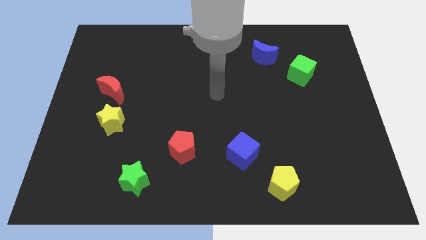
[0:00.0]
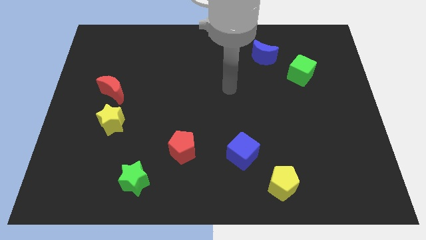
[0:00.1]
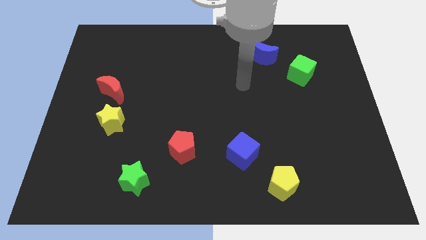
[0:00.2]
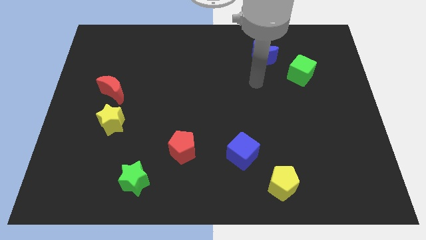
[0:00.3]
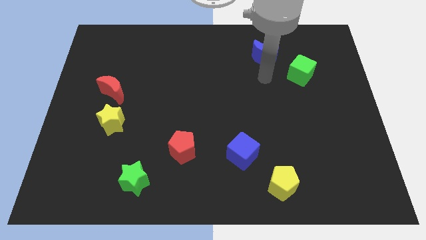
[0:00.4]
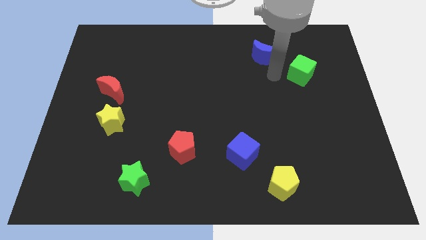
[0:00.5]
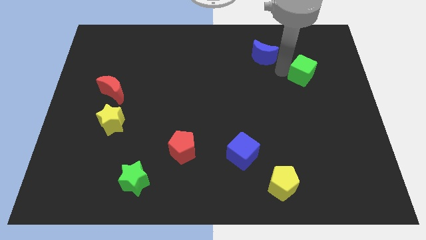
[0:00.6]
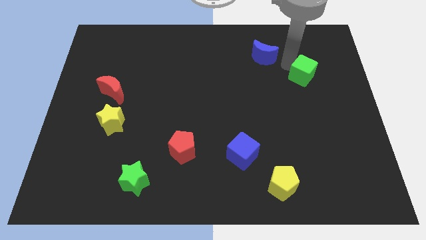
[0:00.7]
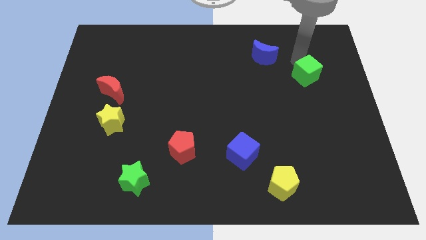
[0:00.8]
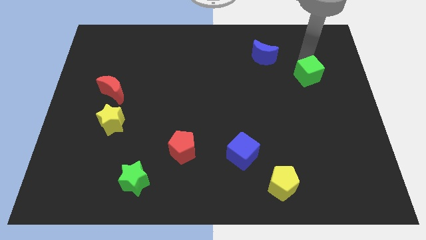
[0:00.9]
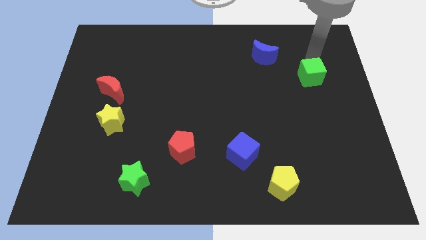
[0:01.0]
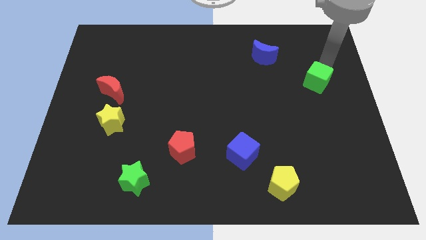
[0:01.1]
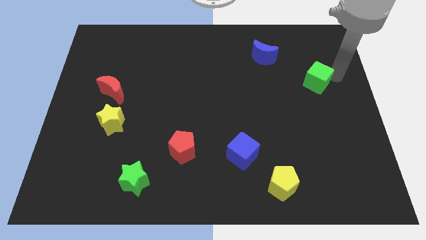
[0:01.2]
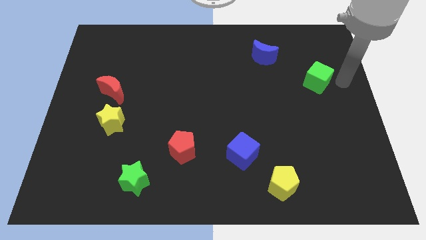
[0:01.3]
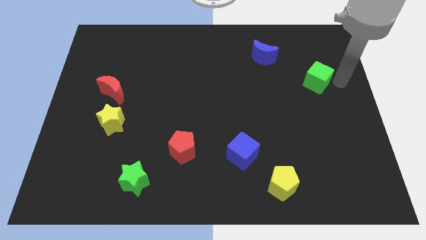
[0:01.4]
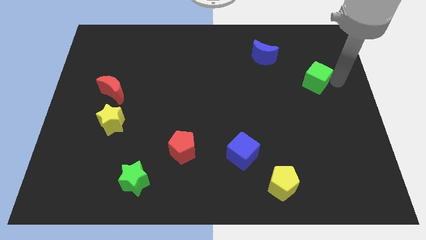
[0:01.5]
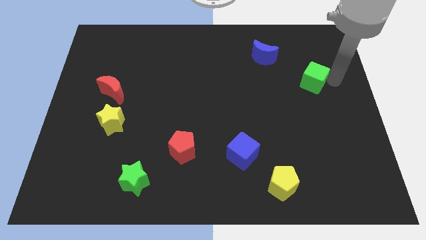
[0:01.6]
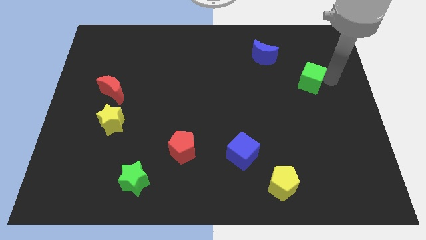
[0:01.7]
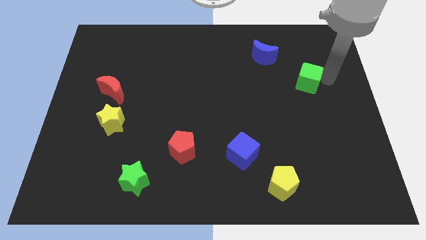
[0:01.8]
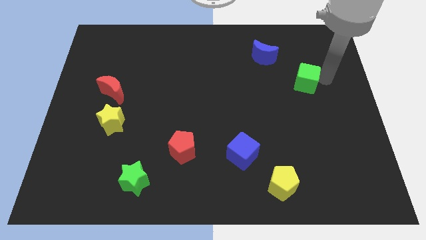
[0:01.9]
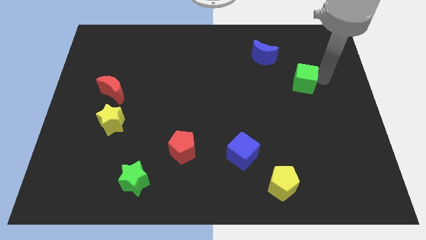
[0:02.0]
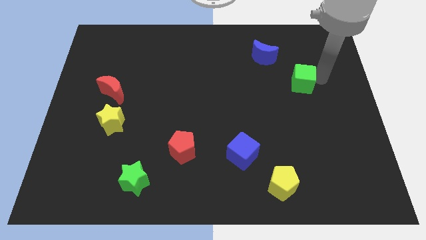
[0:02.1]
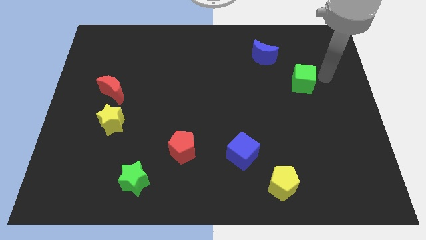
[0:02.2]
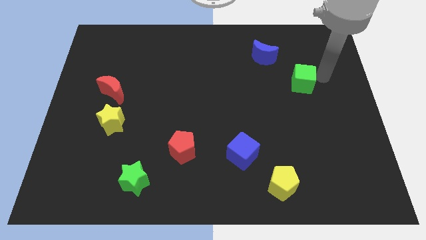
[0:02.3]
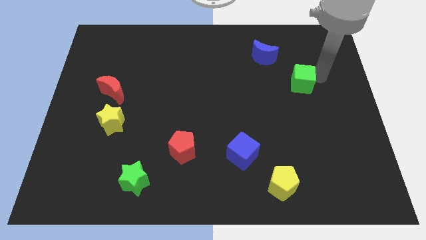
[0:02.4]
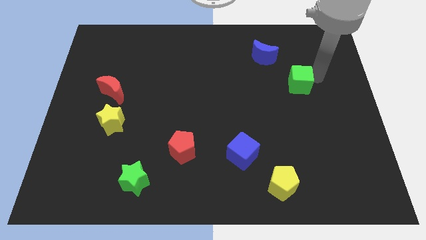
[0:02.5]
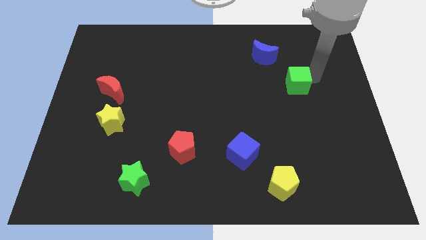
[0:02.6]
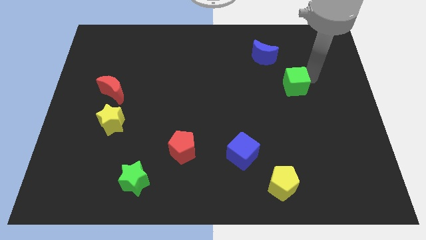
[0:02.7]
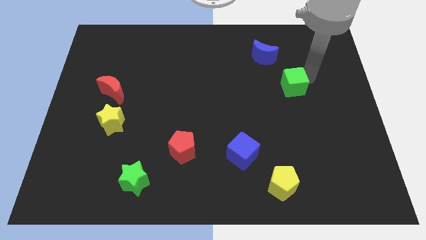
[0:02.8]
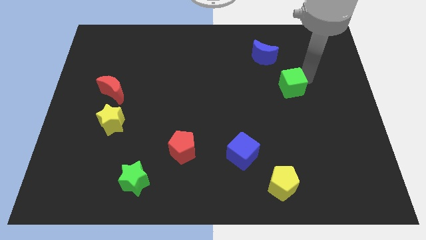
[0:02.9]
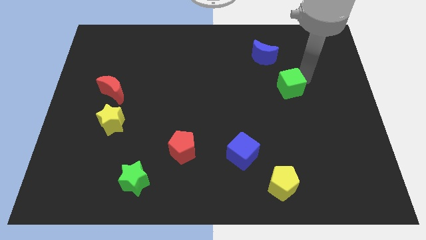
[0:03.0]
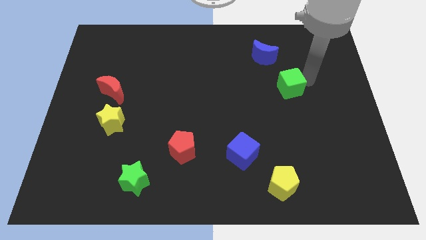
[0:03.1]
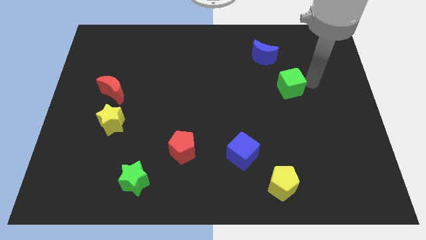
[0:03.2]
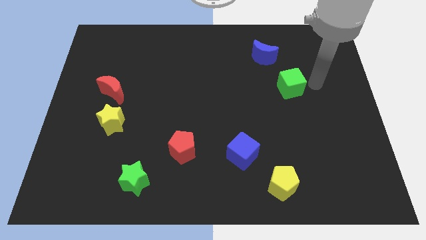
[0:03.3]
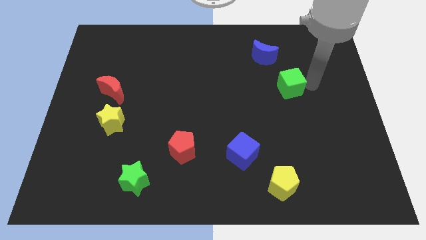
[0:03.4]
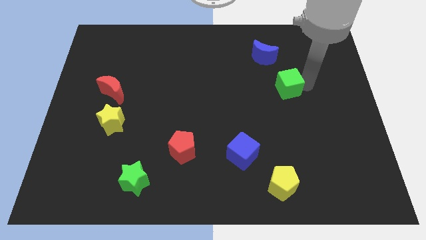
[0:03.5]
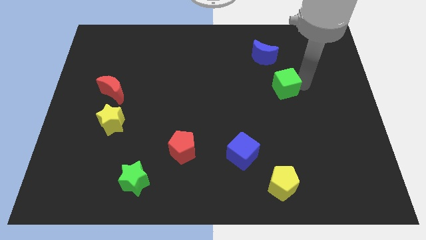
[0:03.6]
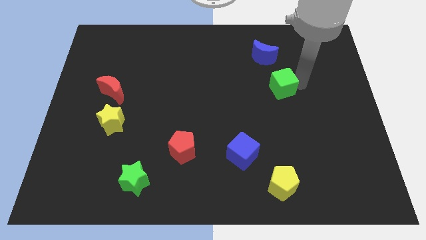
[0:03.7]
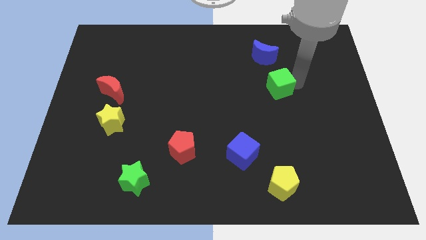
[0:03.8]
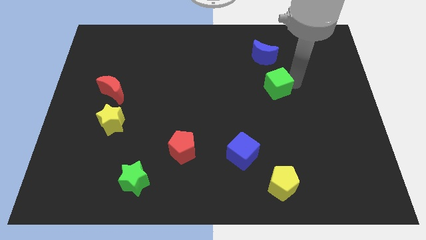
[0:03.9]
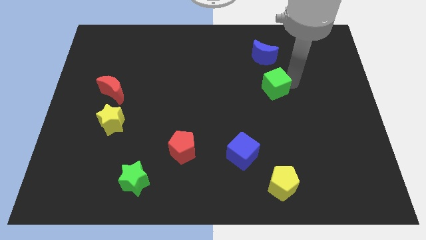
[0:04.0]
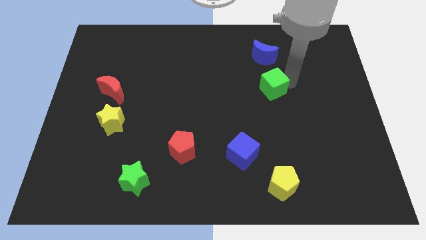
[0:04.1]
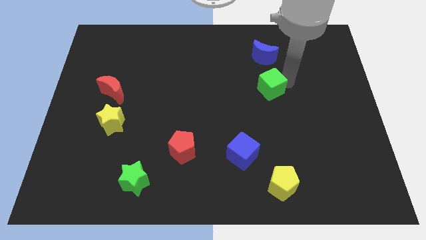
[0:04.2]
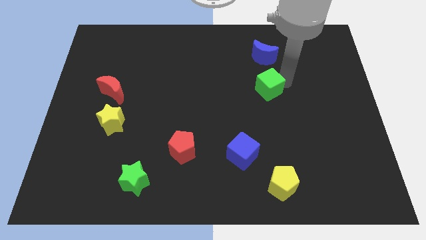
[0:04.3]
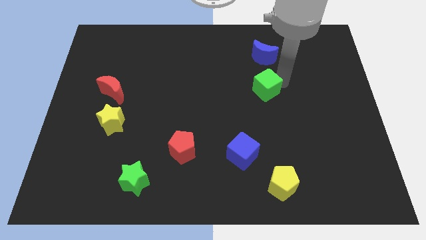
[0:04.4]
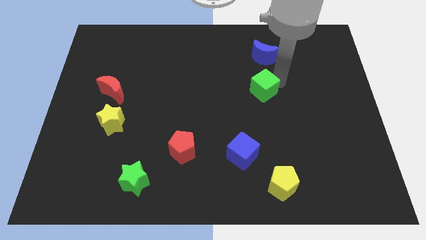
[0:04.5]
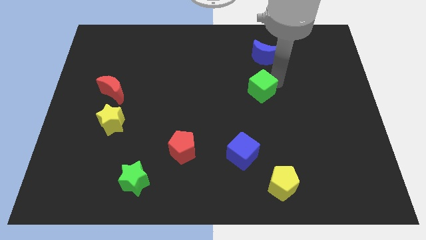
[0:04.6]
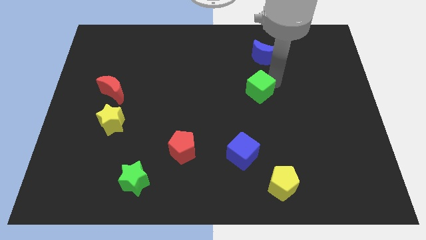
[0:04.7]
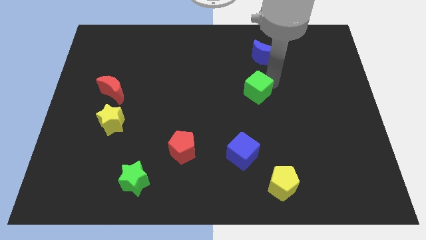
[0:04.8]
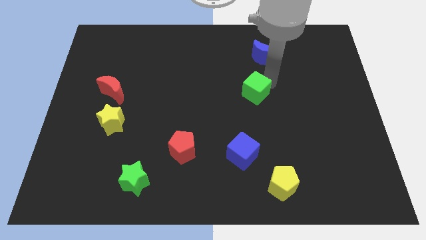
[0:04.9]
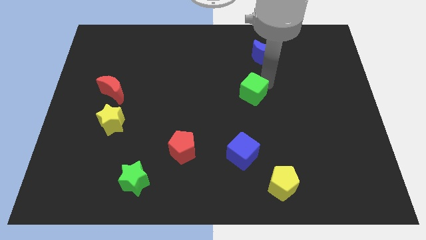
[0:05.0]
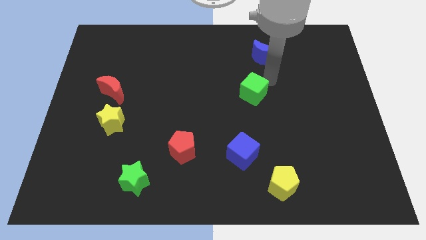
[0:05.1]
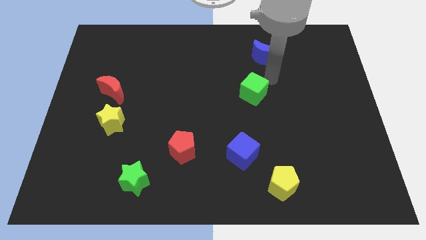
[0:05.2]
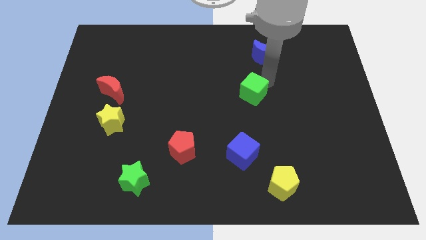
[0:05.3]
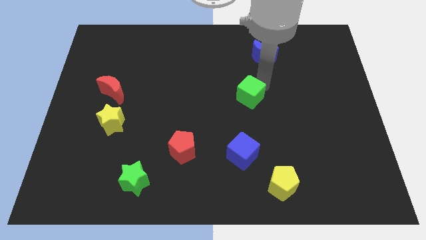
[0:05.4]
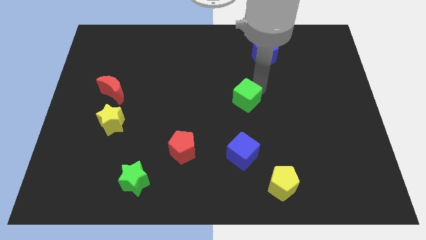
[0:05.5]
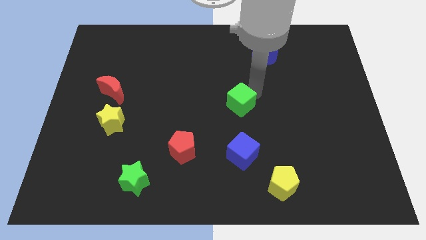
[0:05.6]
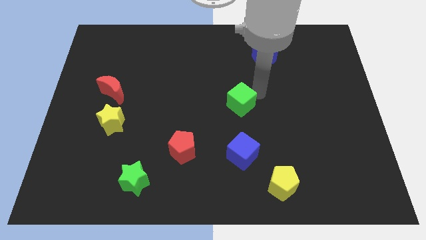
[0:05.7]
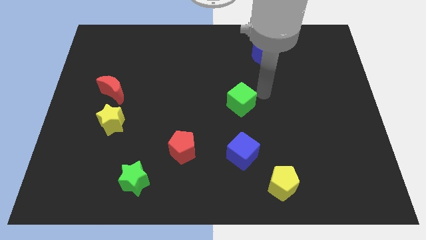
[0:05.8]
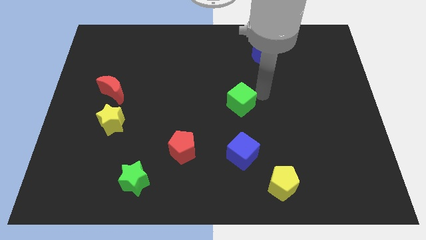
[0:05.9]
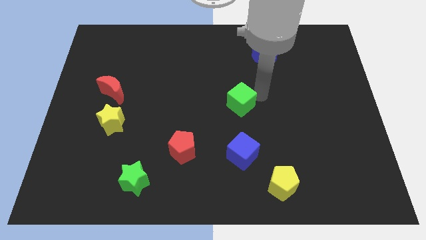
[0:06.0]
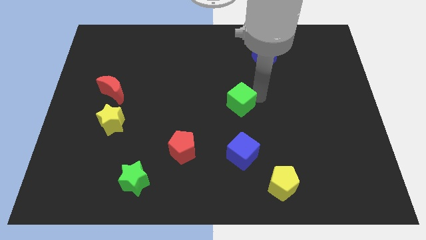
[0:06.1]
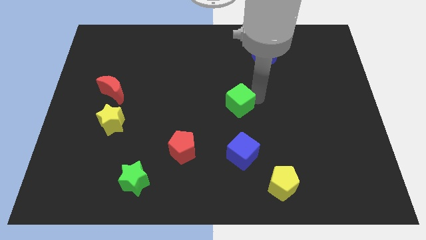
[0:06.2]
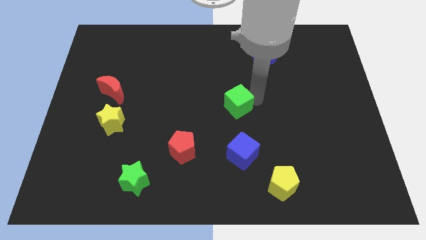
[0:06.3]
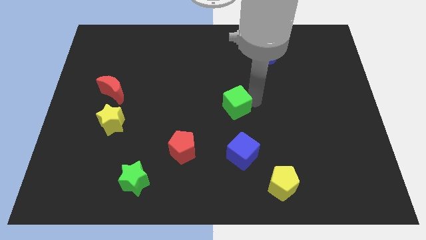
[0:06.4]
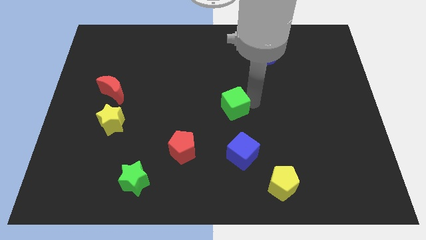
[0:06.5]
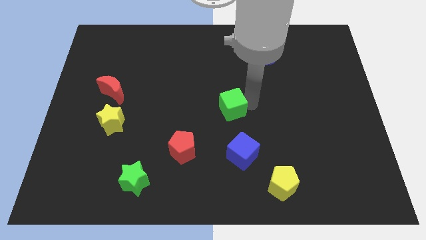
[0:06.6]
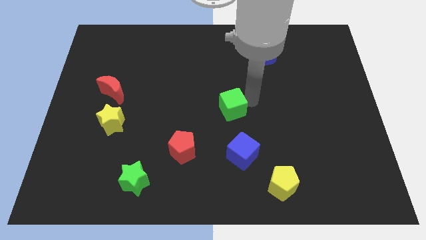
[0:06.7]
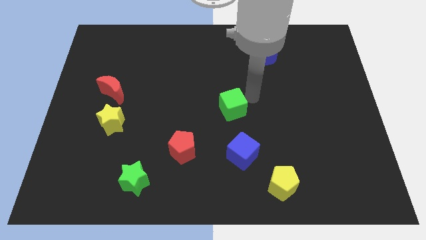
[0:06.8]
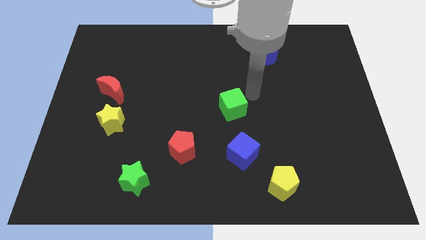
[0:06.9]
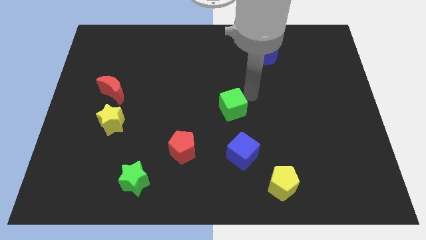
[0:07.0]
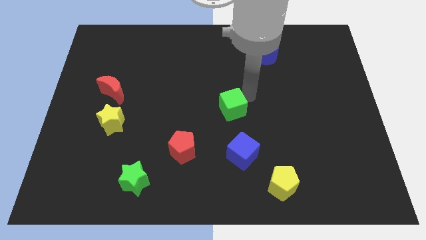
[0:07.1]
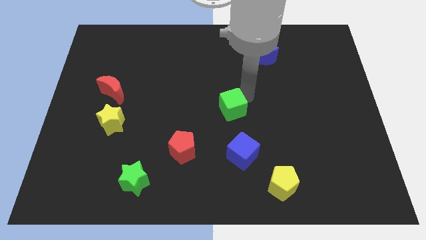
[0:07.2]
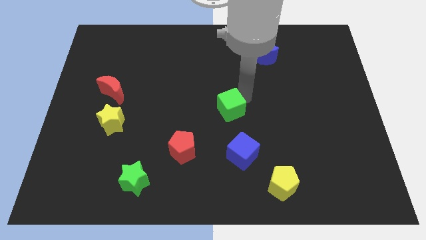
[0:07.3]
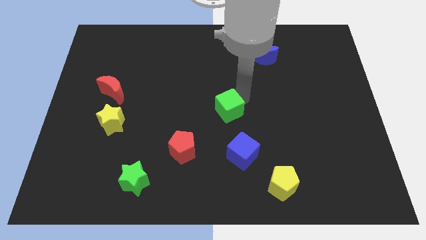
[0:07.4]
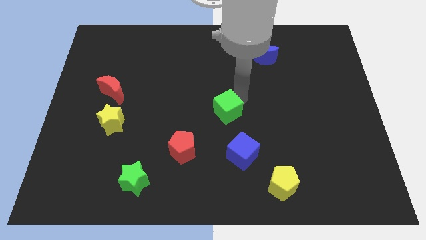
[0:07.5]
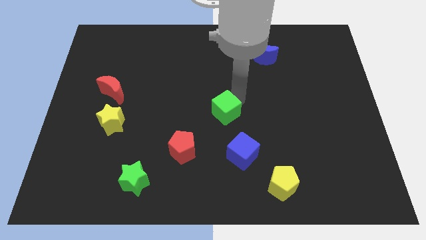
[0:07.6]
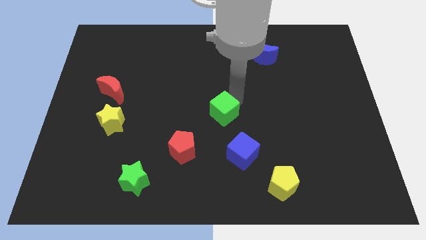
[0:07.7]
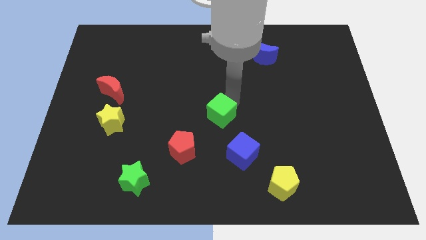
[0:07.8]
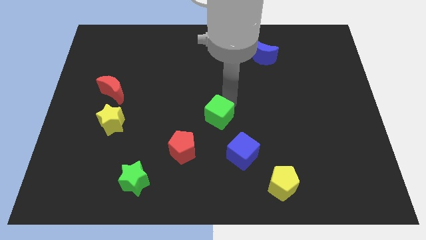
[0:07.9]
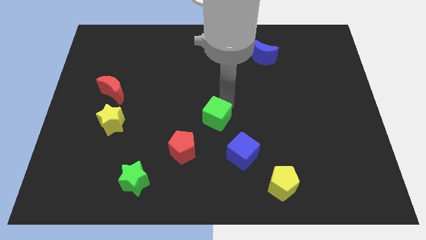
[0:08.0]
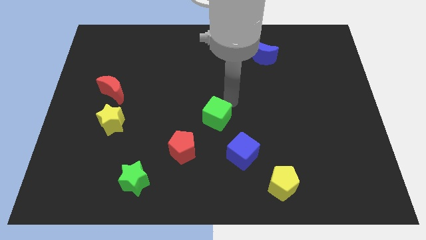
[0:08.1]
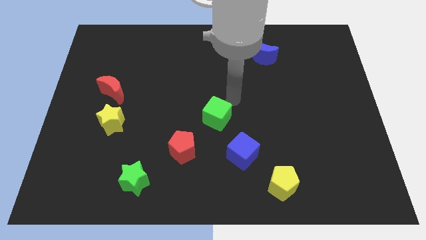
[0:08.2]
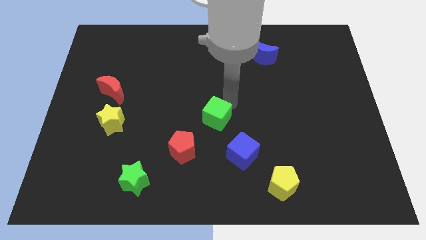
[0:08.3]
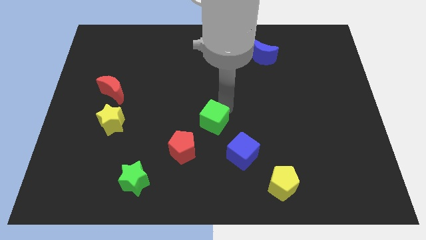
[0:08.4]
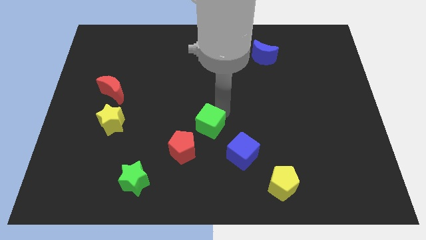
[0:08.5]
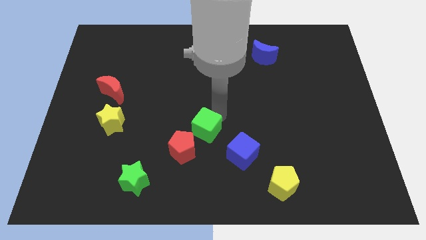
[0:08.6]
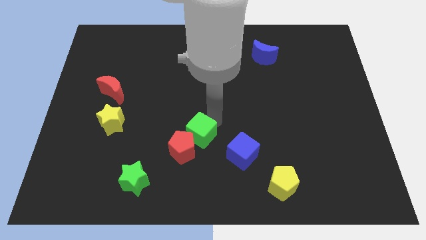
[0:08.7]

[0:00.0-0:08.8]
slide the green cube close to the red pentagon
